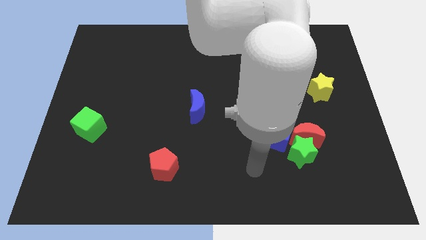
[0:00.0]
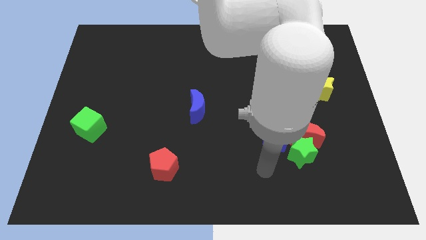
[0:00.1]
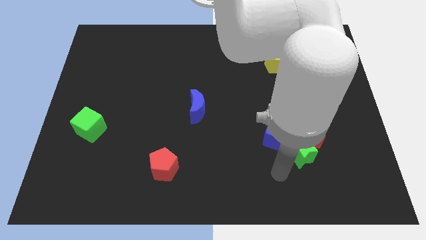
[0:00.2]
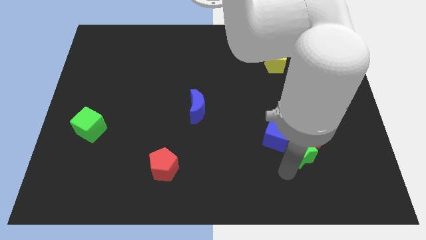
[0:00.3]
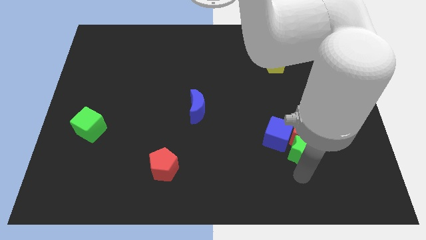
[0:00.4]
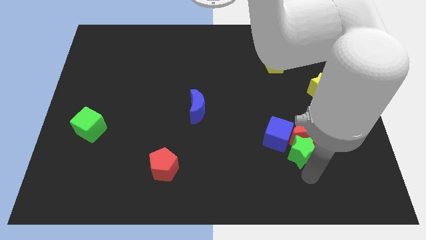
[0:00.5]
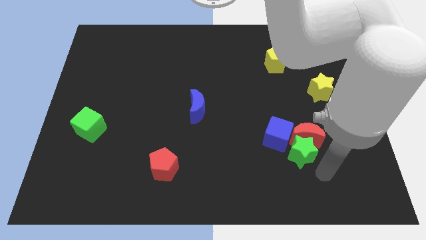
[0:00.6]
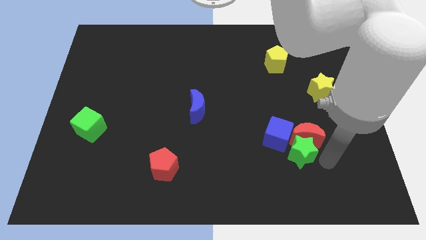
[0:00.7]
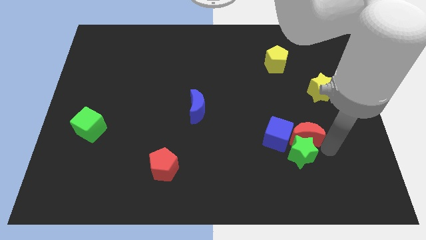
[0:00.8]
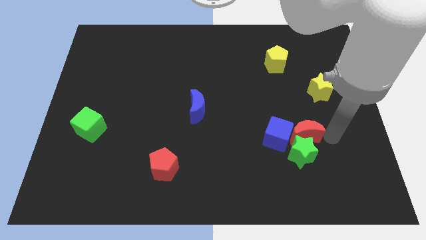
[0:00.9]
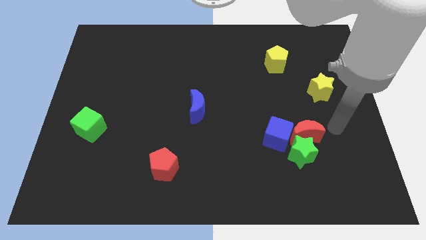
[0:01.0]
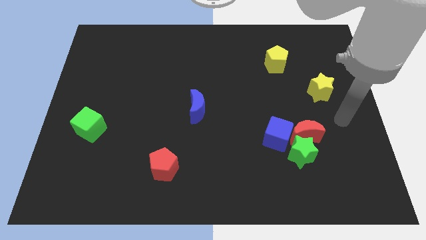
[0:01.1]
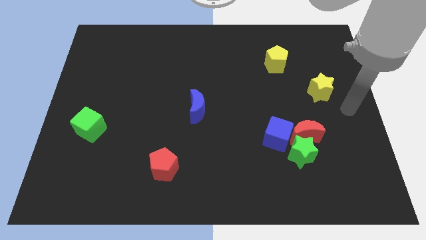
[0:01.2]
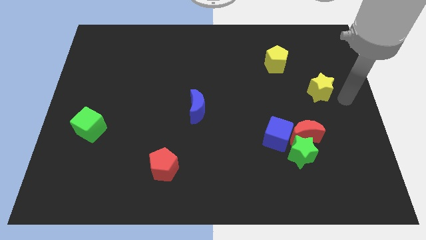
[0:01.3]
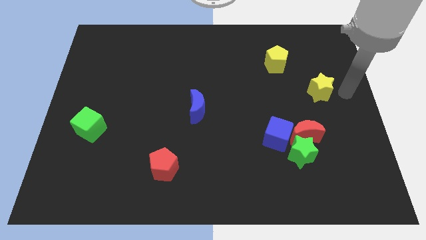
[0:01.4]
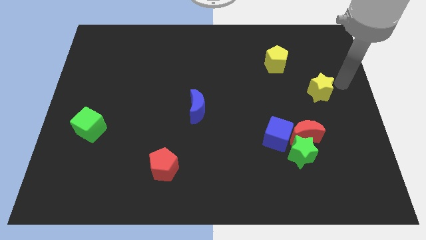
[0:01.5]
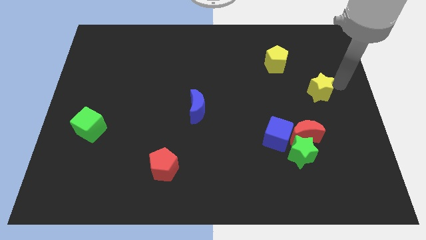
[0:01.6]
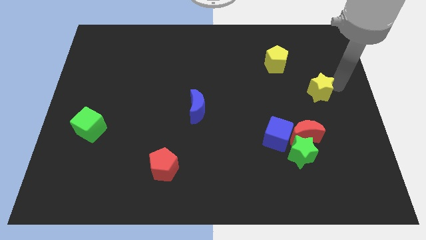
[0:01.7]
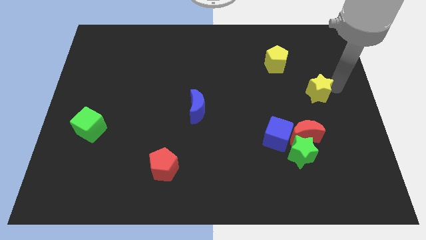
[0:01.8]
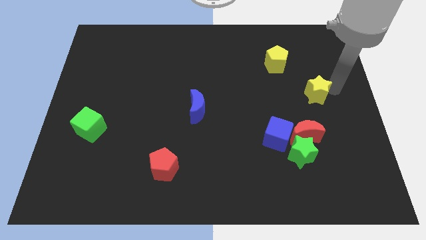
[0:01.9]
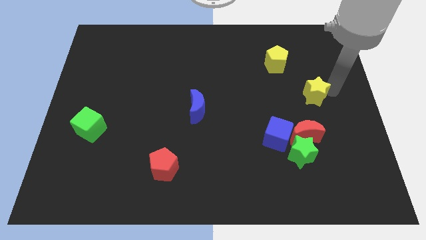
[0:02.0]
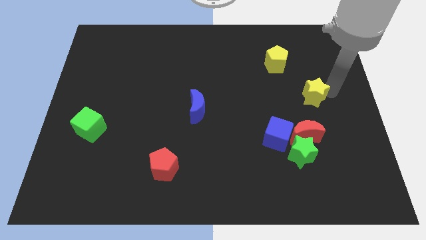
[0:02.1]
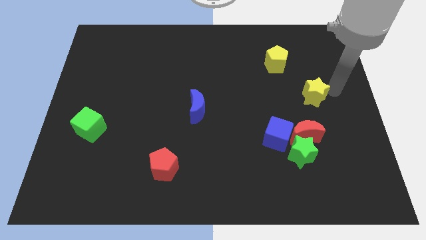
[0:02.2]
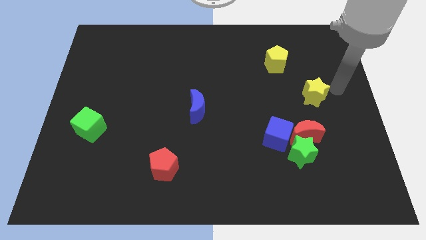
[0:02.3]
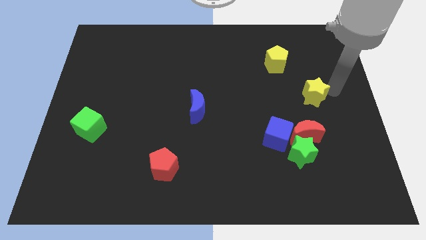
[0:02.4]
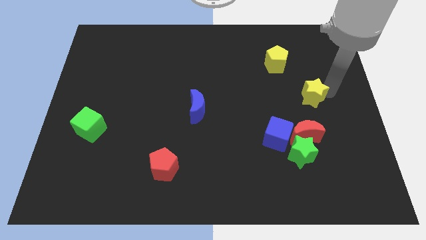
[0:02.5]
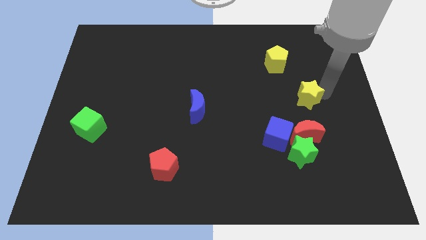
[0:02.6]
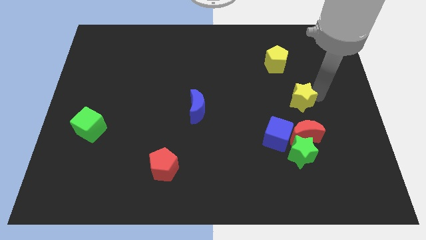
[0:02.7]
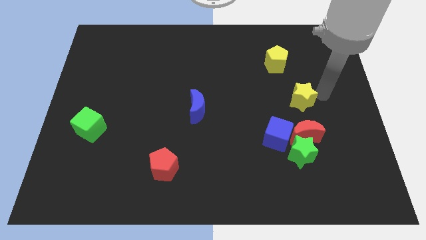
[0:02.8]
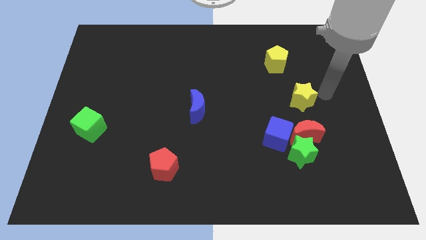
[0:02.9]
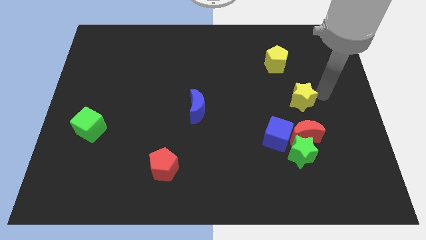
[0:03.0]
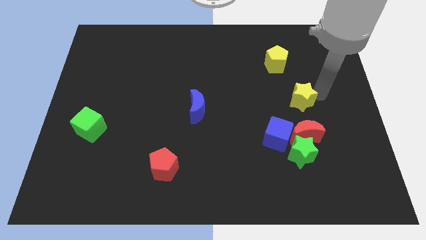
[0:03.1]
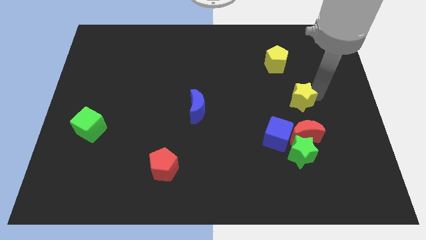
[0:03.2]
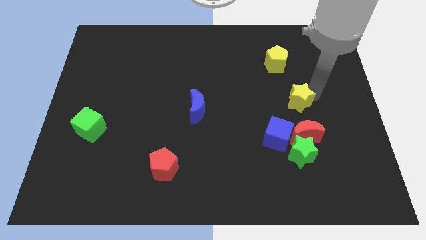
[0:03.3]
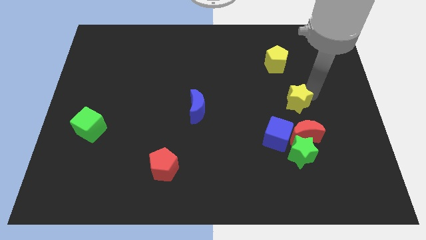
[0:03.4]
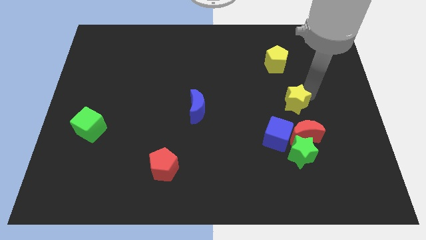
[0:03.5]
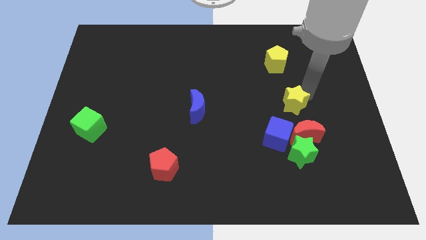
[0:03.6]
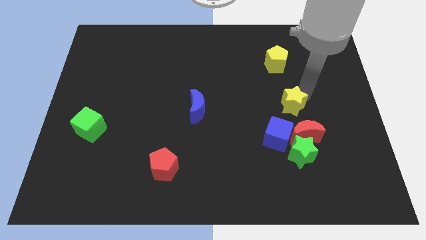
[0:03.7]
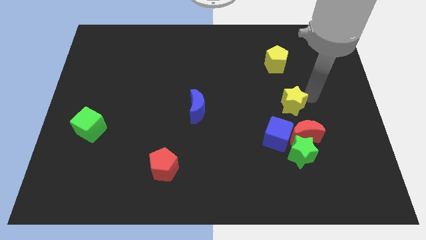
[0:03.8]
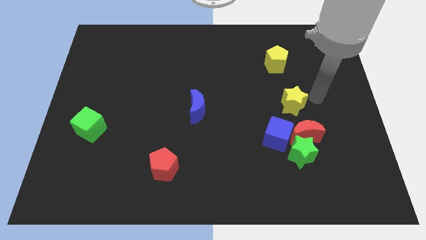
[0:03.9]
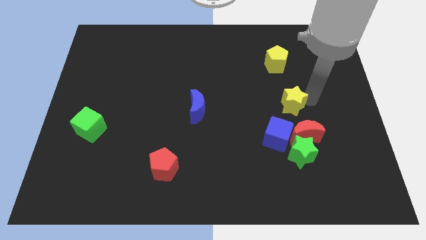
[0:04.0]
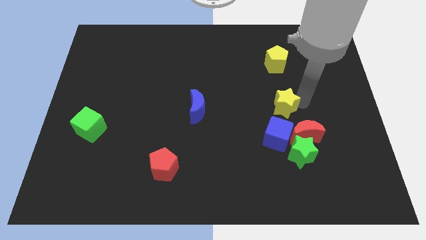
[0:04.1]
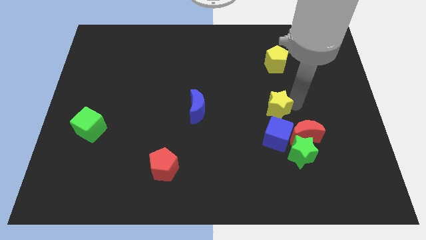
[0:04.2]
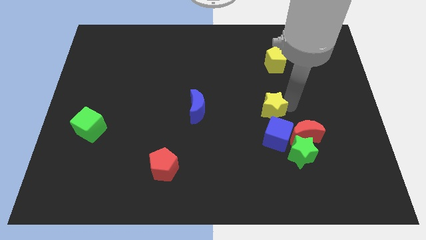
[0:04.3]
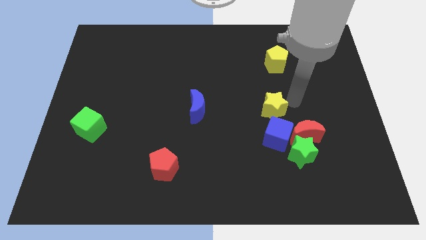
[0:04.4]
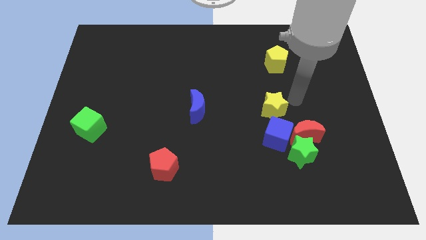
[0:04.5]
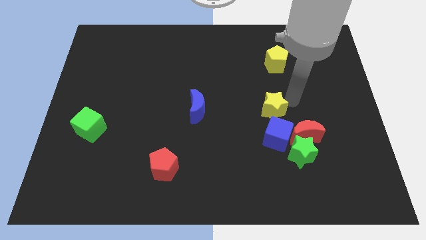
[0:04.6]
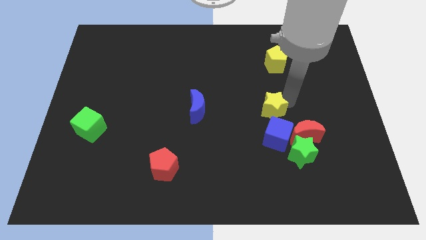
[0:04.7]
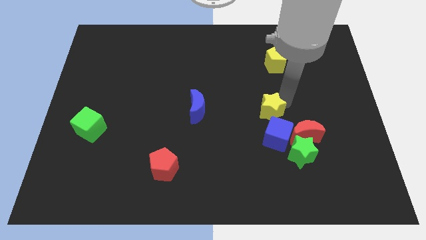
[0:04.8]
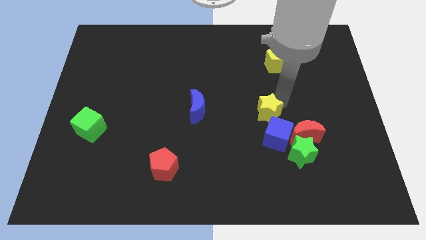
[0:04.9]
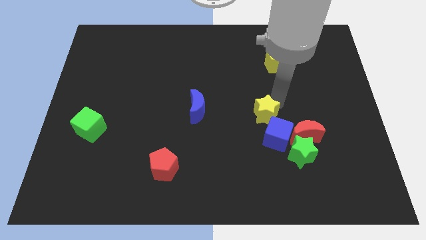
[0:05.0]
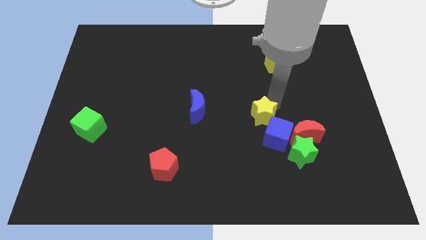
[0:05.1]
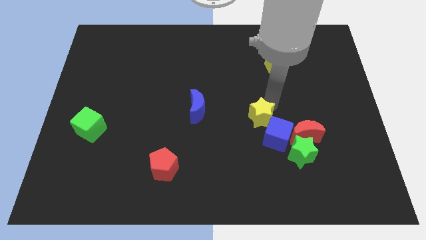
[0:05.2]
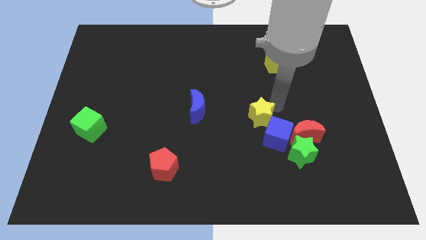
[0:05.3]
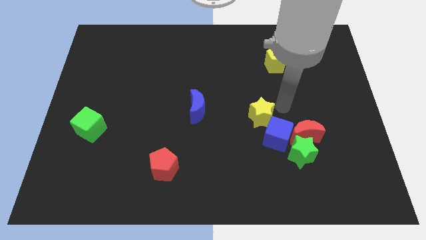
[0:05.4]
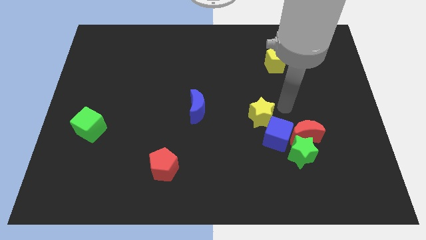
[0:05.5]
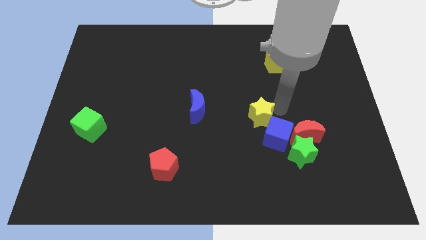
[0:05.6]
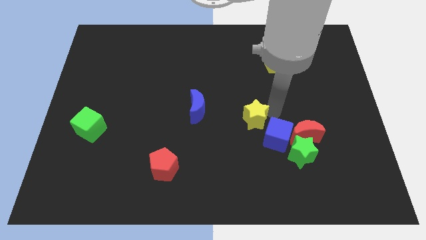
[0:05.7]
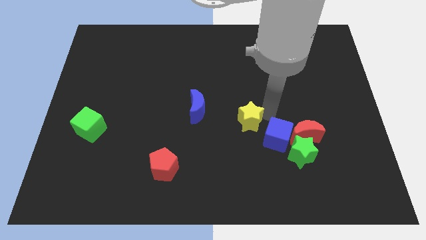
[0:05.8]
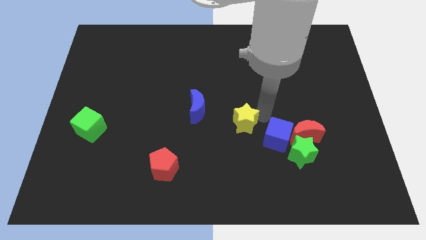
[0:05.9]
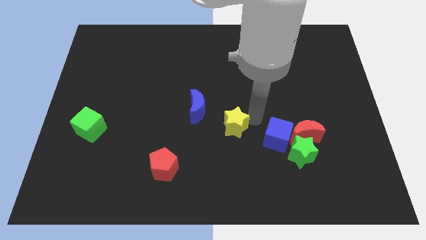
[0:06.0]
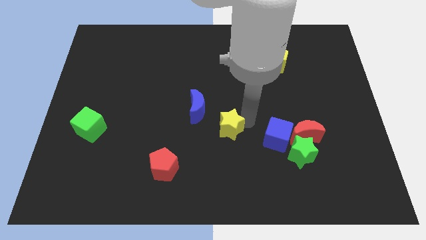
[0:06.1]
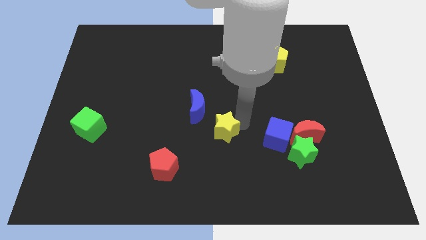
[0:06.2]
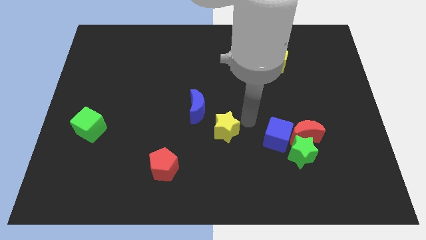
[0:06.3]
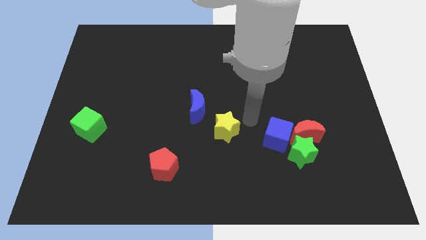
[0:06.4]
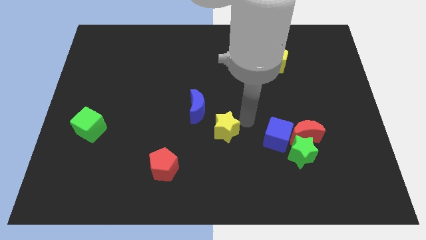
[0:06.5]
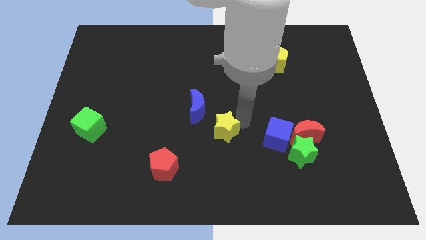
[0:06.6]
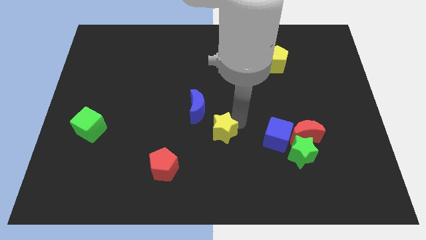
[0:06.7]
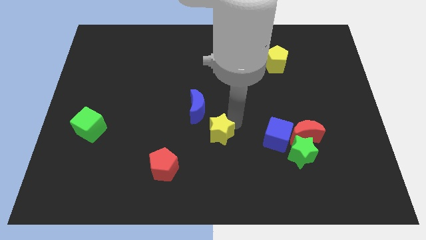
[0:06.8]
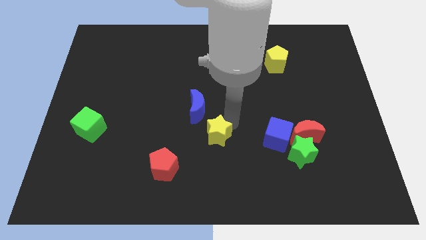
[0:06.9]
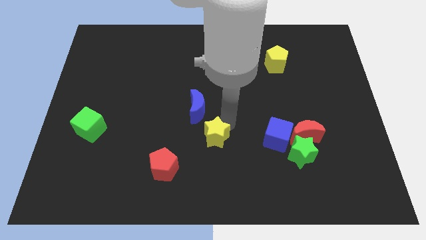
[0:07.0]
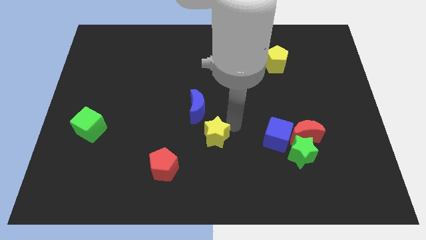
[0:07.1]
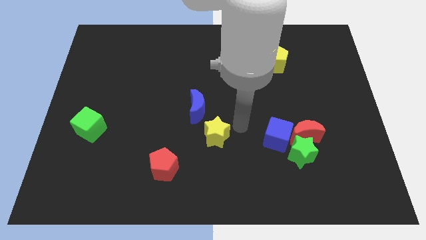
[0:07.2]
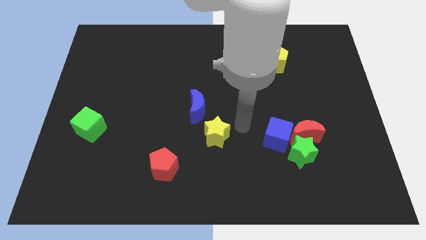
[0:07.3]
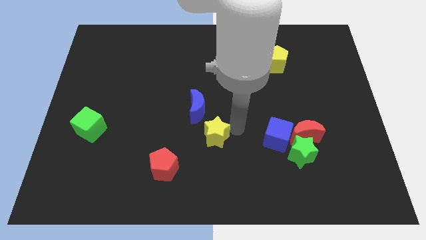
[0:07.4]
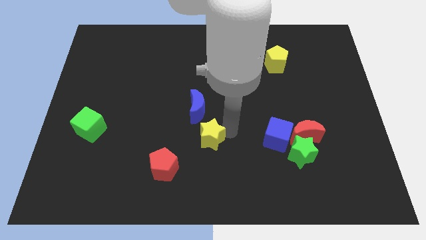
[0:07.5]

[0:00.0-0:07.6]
slide the yellow star to the top right side of the red pentagon

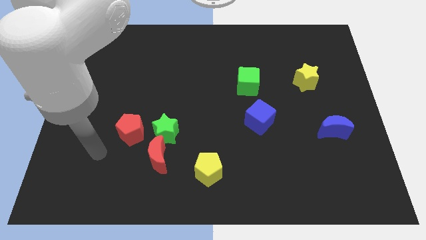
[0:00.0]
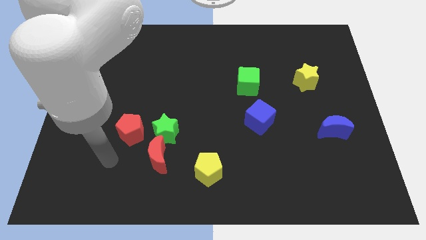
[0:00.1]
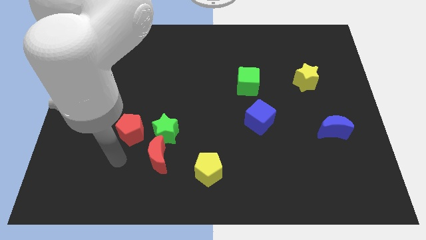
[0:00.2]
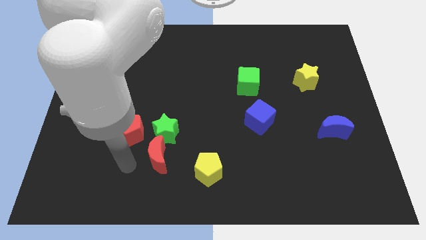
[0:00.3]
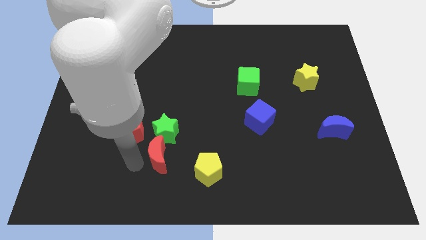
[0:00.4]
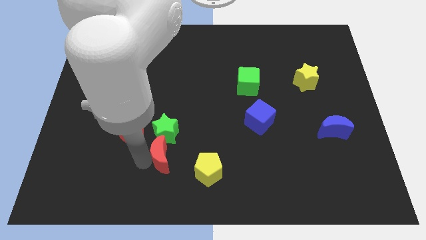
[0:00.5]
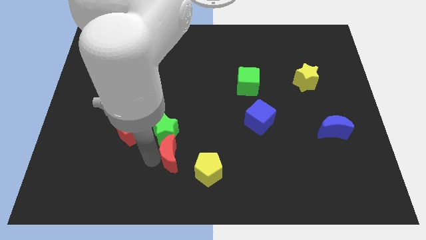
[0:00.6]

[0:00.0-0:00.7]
slide the red moon to the top left of the yellow pentagon
